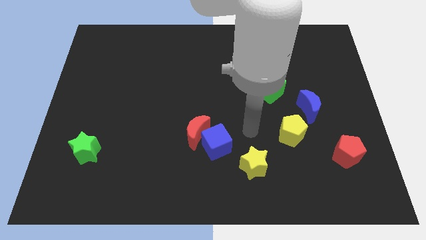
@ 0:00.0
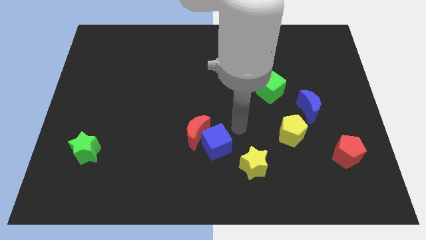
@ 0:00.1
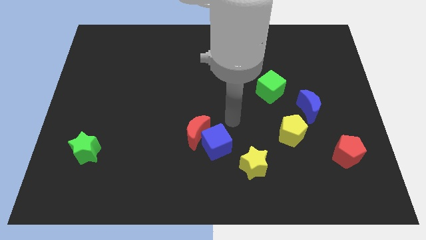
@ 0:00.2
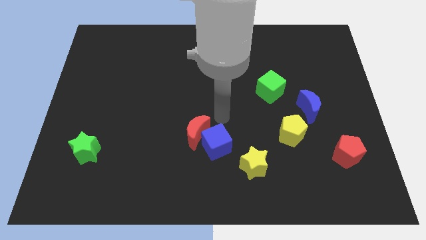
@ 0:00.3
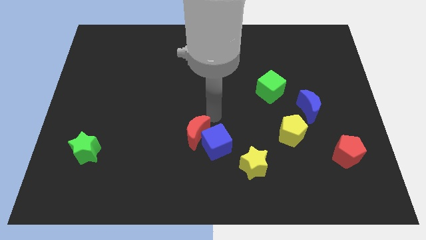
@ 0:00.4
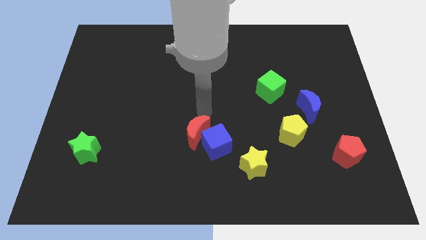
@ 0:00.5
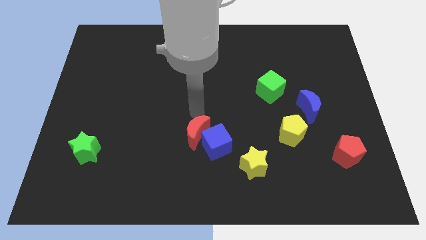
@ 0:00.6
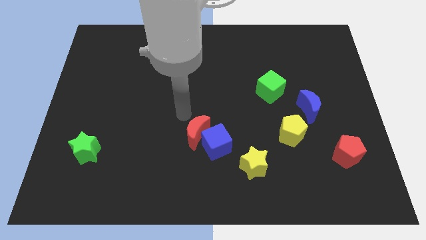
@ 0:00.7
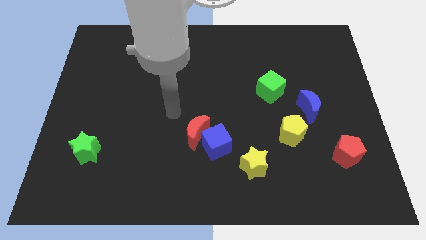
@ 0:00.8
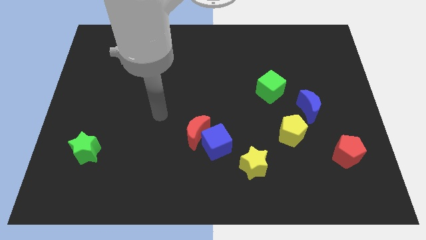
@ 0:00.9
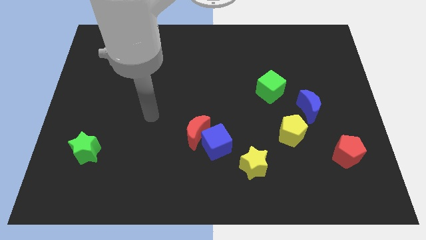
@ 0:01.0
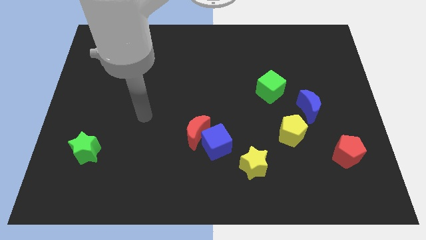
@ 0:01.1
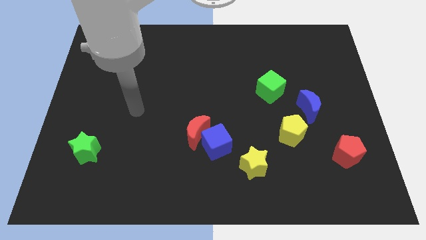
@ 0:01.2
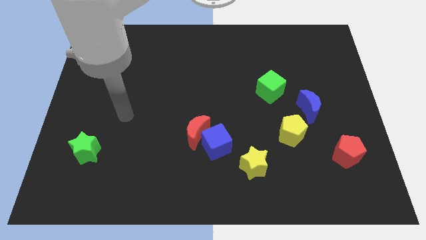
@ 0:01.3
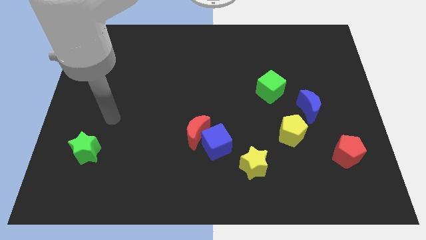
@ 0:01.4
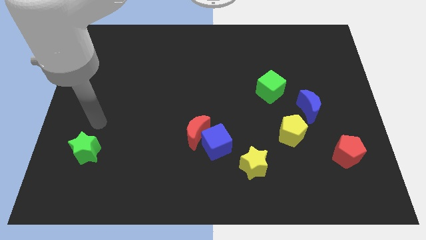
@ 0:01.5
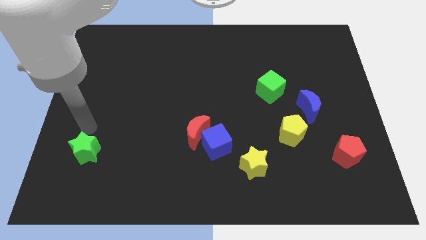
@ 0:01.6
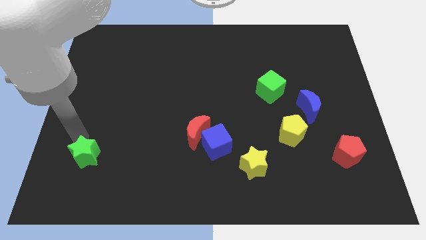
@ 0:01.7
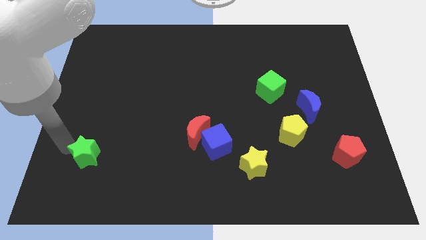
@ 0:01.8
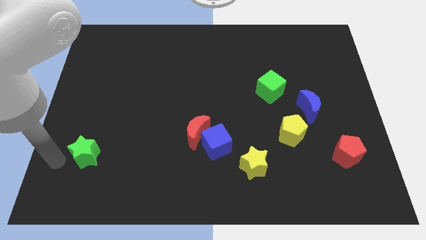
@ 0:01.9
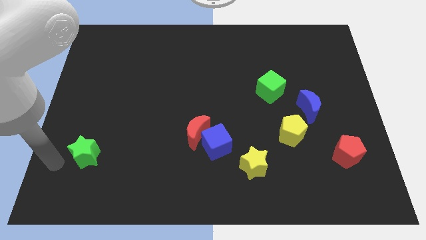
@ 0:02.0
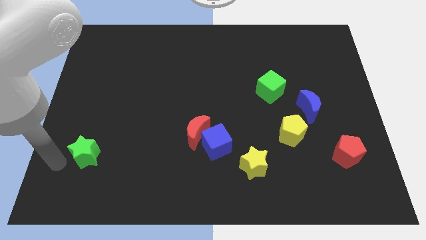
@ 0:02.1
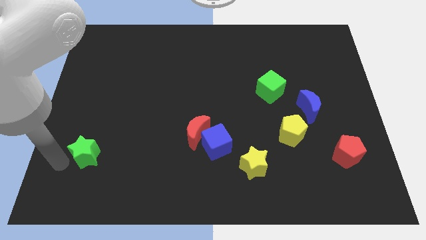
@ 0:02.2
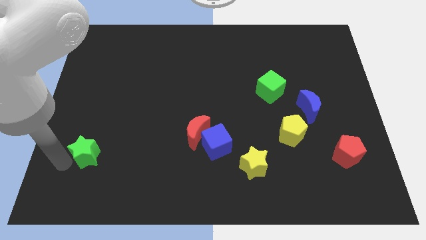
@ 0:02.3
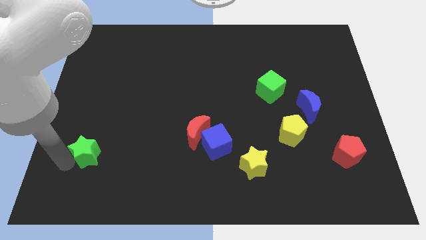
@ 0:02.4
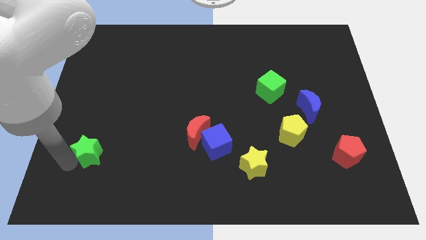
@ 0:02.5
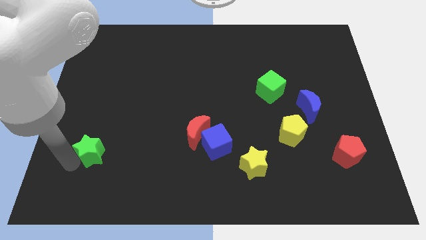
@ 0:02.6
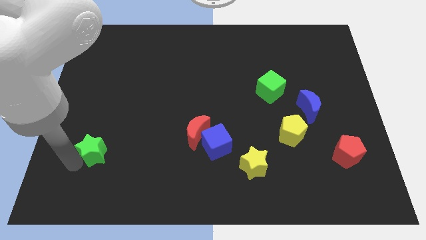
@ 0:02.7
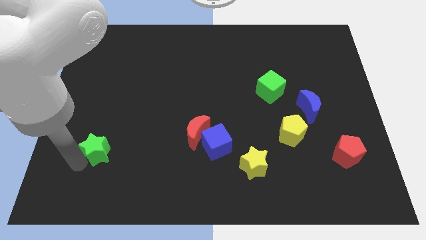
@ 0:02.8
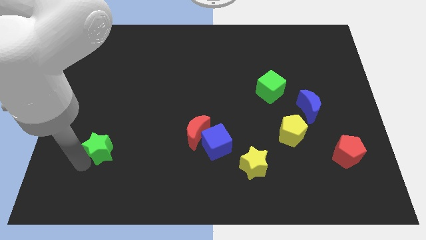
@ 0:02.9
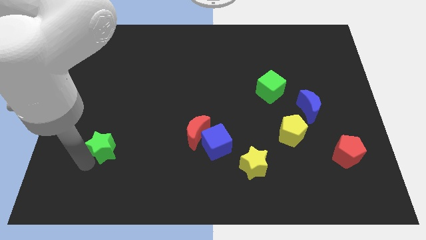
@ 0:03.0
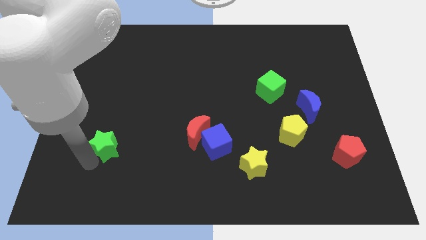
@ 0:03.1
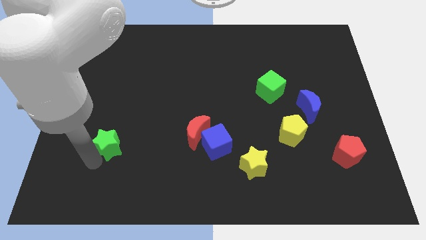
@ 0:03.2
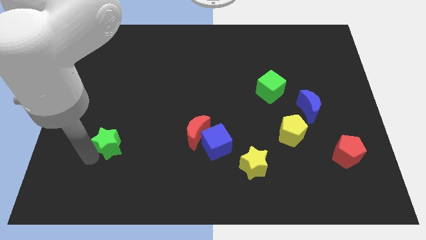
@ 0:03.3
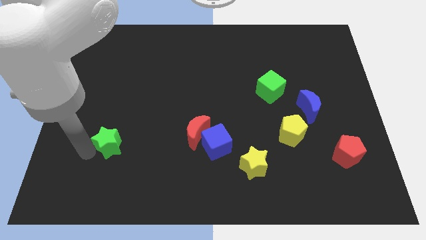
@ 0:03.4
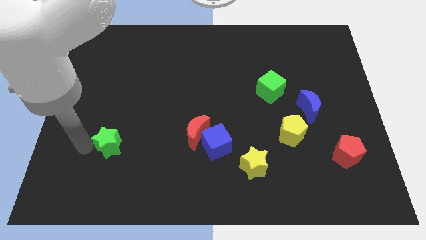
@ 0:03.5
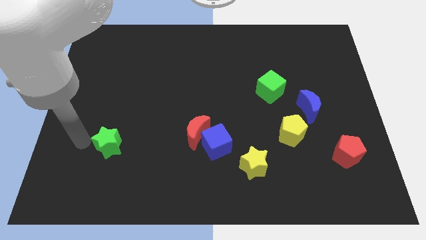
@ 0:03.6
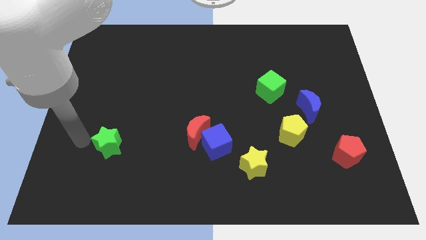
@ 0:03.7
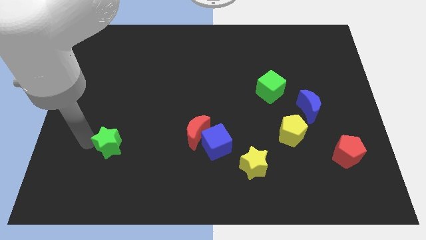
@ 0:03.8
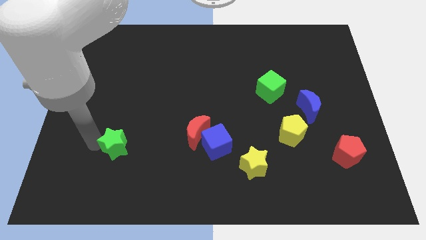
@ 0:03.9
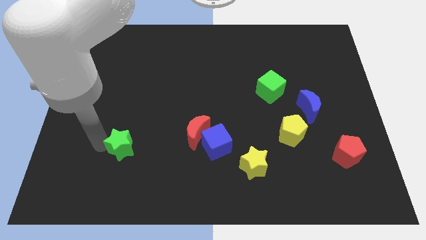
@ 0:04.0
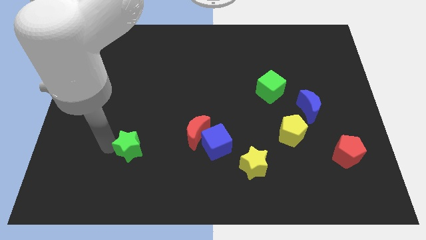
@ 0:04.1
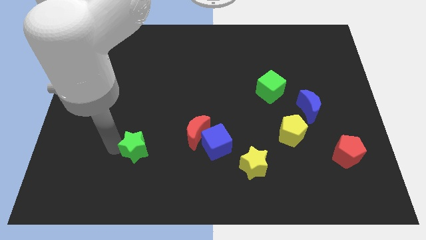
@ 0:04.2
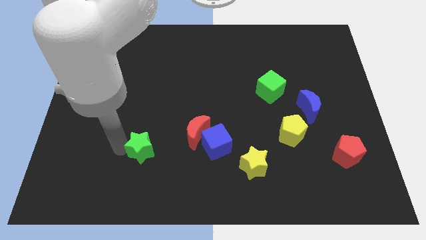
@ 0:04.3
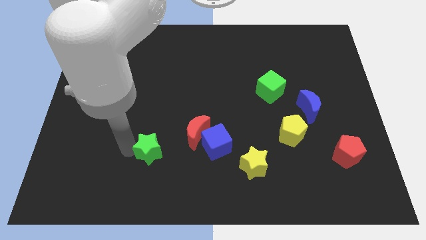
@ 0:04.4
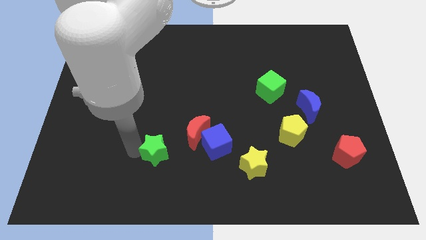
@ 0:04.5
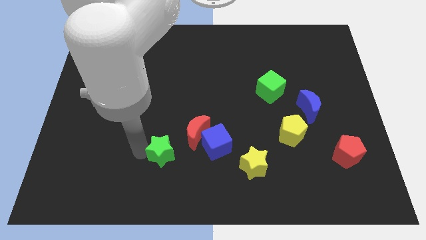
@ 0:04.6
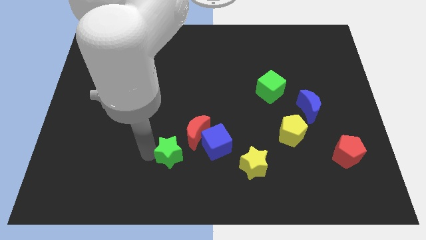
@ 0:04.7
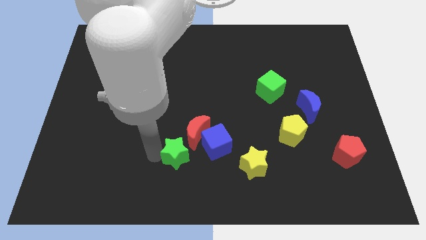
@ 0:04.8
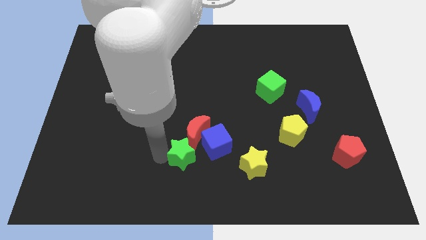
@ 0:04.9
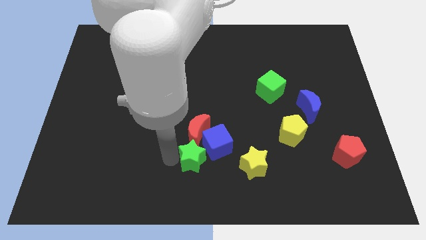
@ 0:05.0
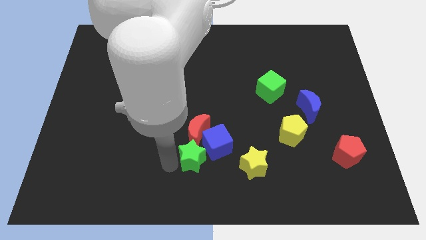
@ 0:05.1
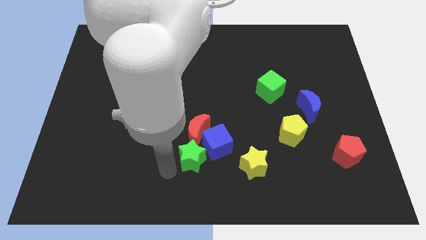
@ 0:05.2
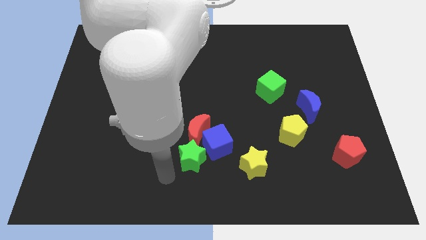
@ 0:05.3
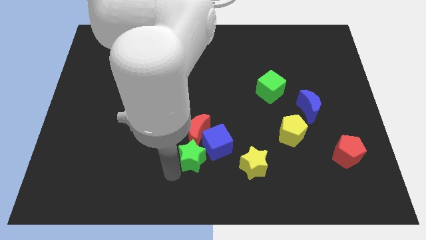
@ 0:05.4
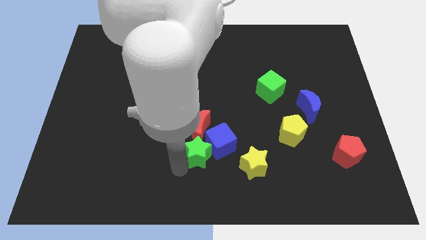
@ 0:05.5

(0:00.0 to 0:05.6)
move the green star close to the blue cube

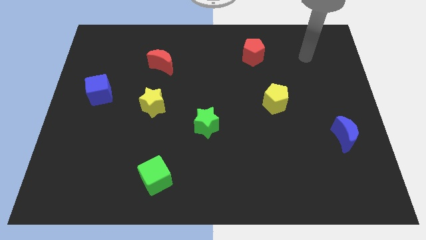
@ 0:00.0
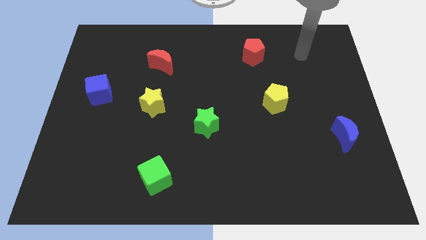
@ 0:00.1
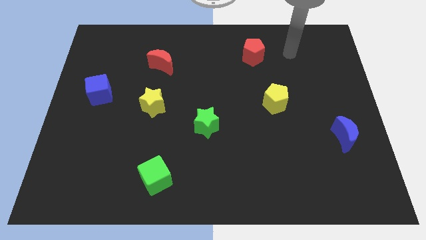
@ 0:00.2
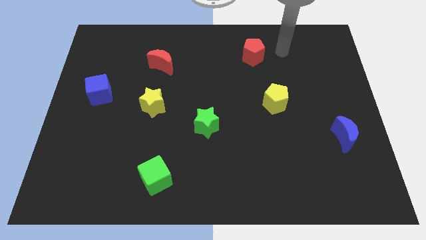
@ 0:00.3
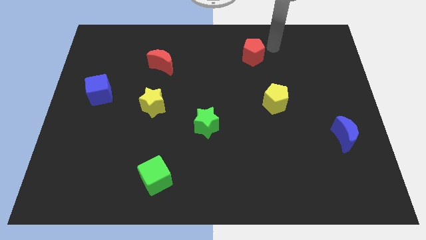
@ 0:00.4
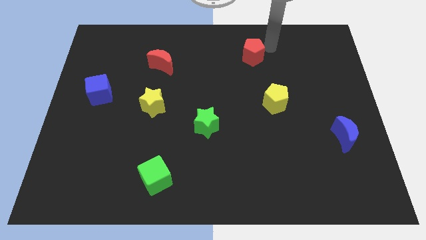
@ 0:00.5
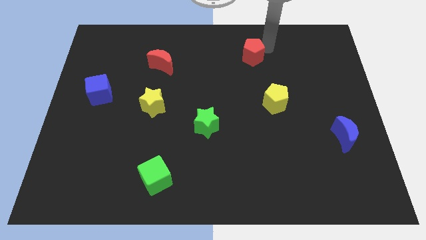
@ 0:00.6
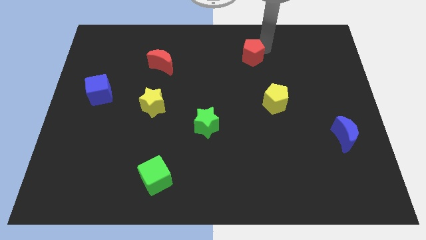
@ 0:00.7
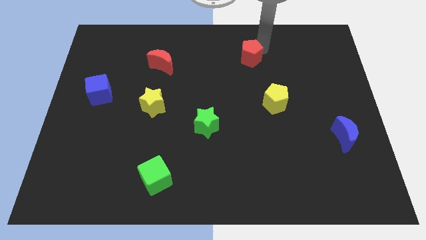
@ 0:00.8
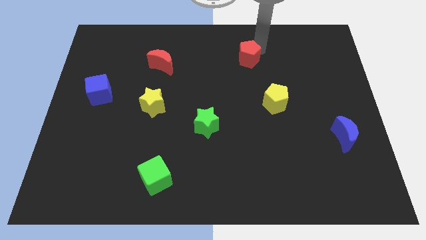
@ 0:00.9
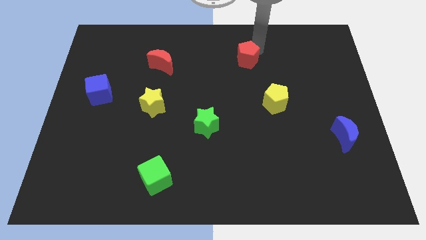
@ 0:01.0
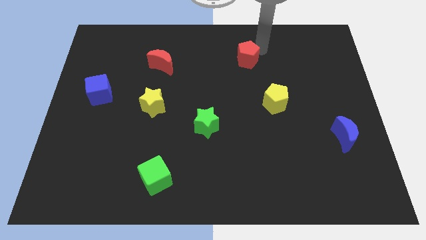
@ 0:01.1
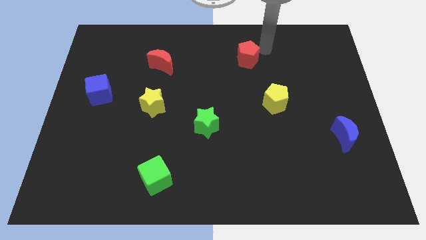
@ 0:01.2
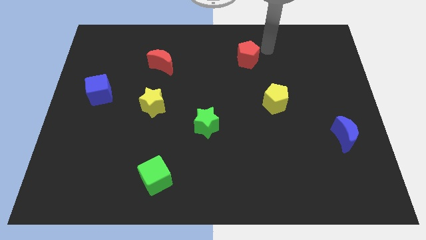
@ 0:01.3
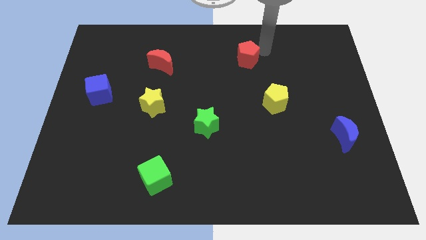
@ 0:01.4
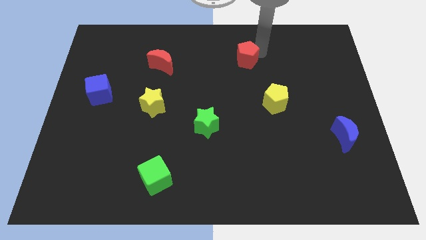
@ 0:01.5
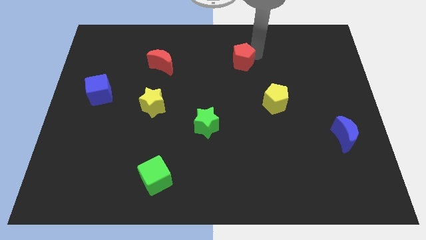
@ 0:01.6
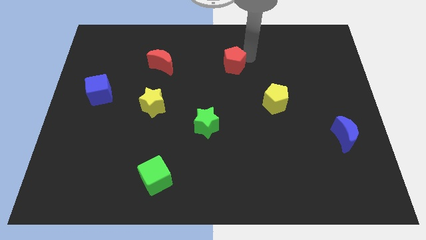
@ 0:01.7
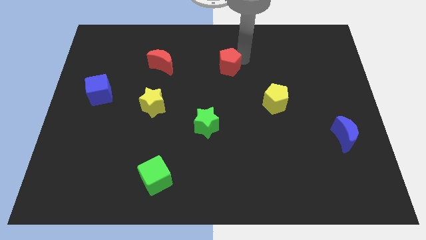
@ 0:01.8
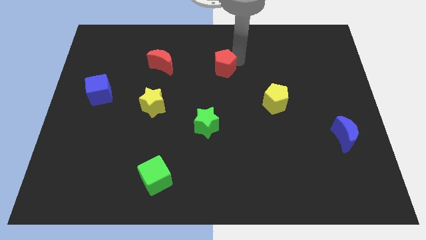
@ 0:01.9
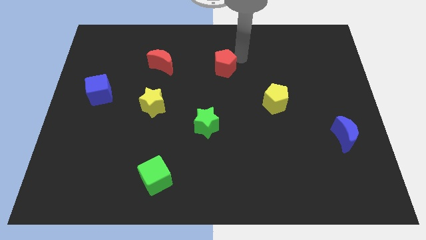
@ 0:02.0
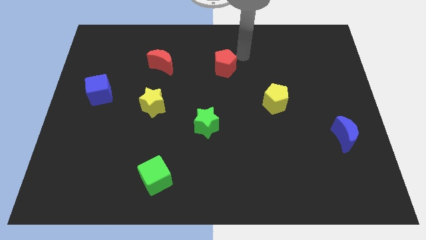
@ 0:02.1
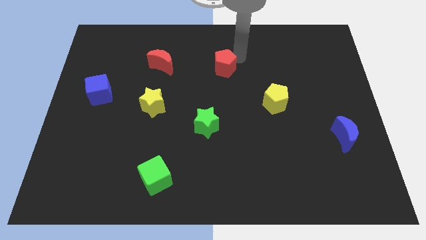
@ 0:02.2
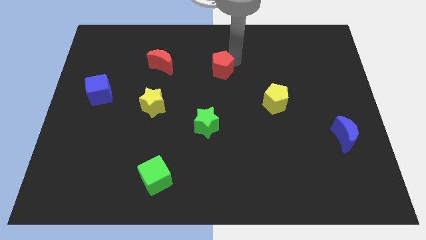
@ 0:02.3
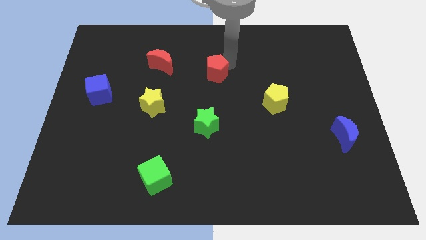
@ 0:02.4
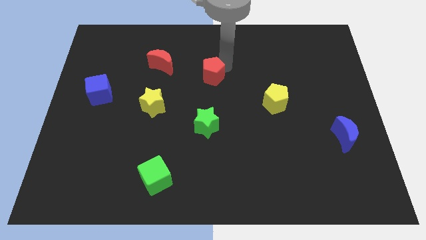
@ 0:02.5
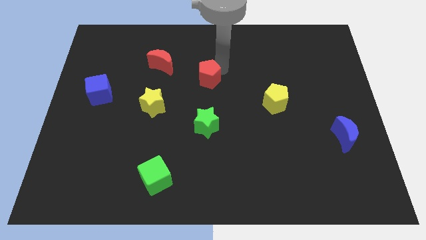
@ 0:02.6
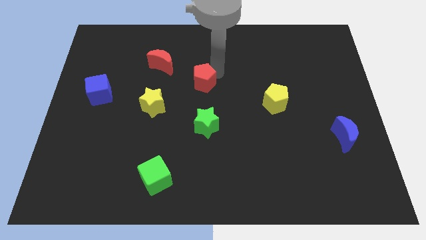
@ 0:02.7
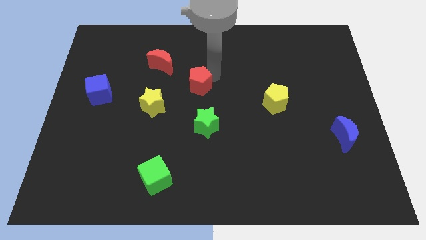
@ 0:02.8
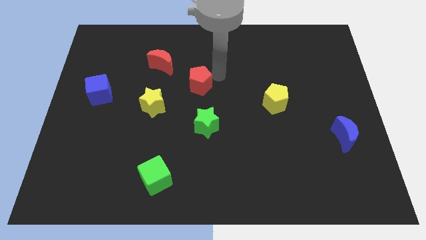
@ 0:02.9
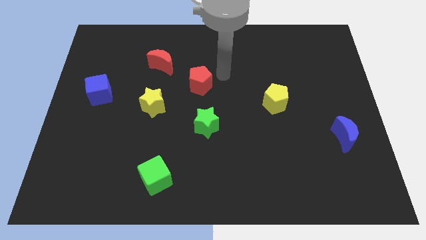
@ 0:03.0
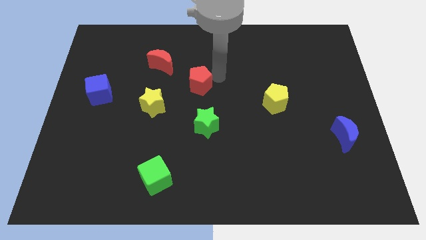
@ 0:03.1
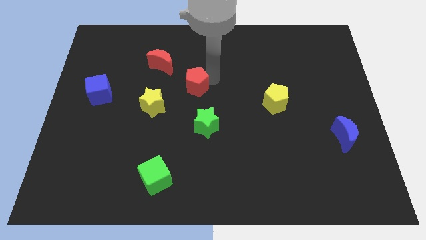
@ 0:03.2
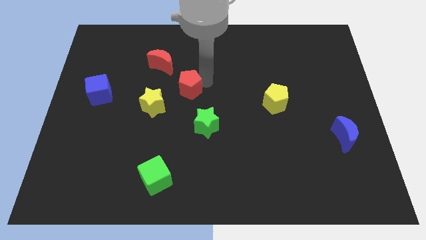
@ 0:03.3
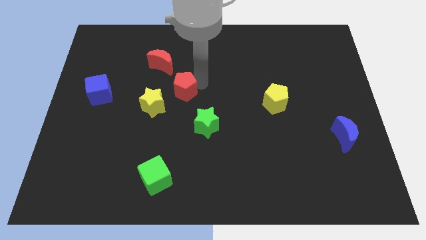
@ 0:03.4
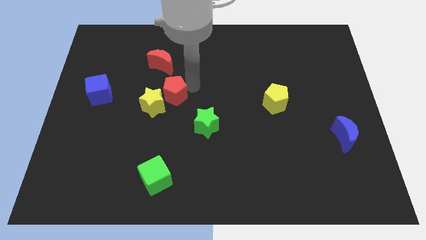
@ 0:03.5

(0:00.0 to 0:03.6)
slide the red pentagon towards the yellow star
